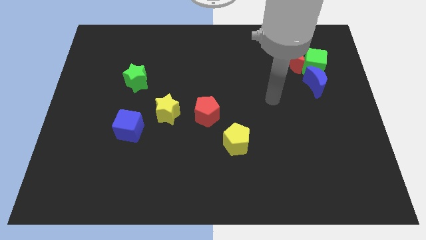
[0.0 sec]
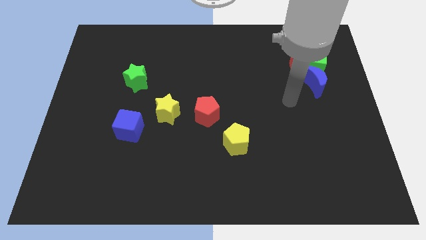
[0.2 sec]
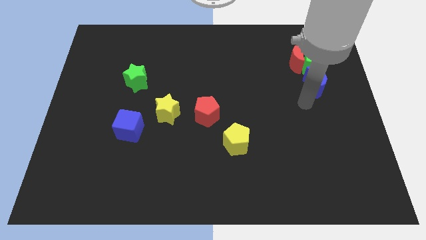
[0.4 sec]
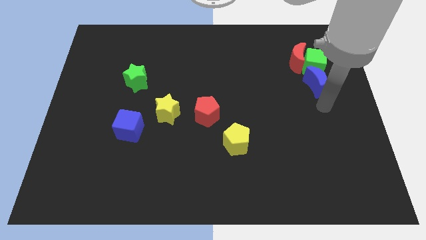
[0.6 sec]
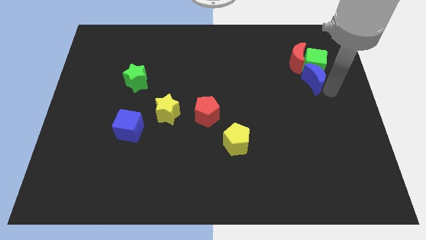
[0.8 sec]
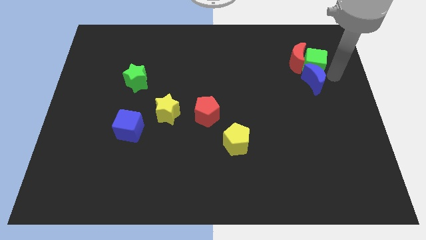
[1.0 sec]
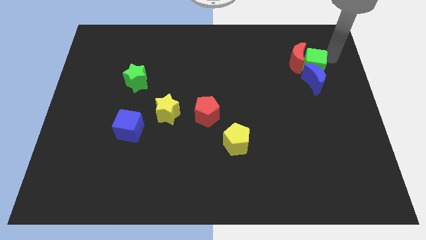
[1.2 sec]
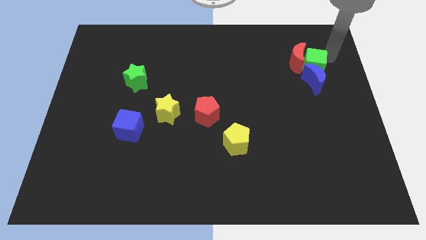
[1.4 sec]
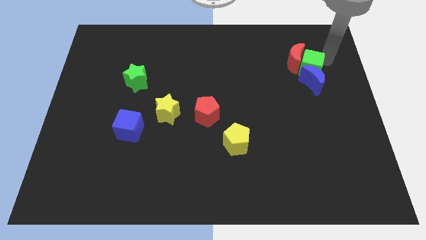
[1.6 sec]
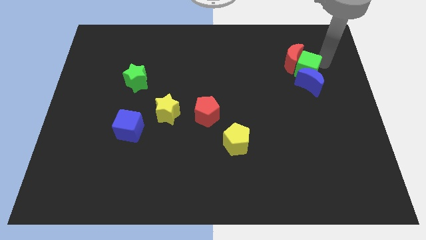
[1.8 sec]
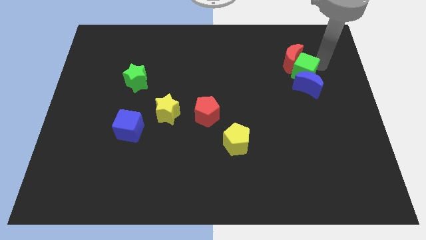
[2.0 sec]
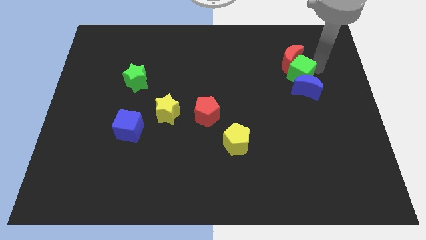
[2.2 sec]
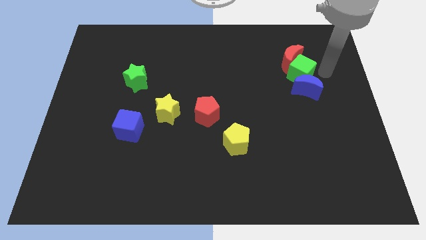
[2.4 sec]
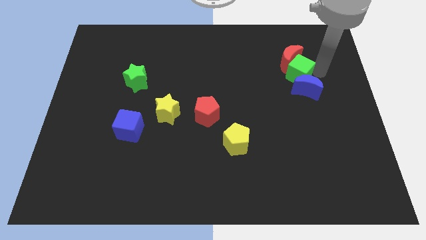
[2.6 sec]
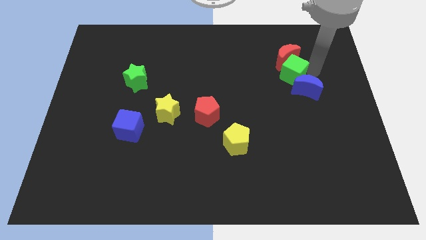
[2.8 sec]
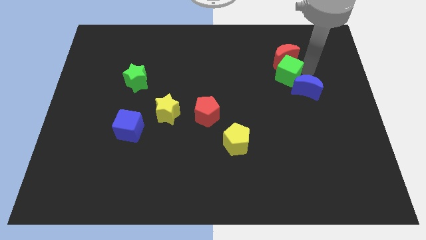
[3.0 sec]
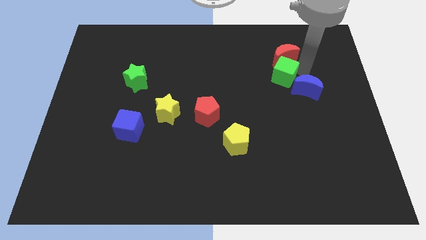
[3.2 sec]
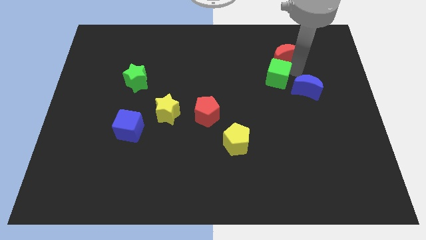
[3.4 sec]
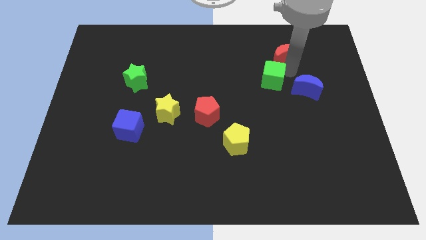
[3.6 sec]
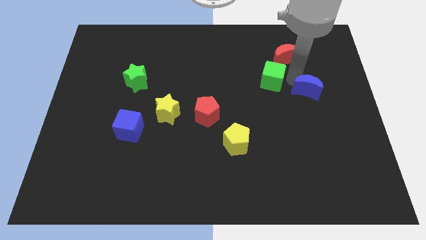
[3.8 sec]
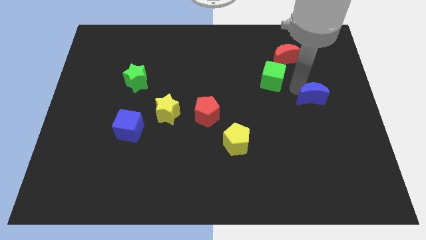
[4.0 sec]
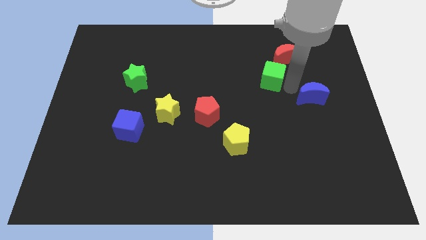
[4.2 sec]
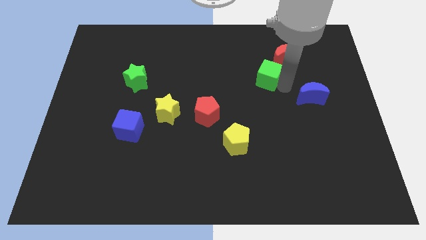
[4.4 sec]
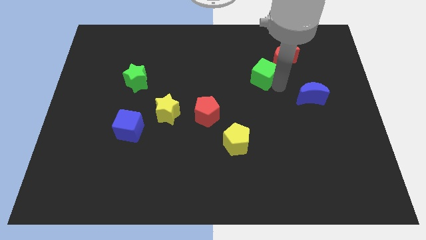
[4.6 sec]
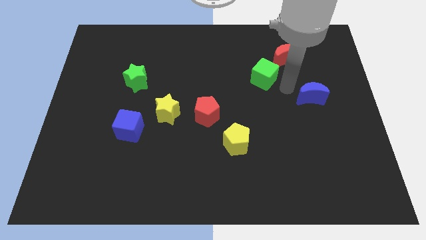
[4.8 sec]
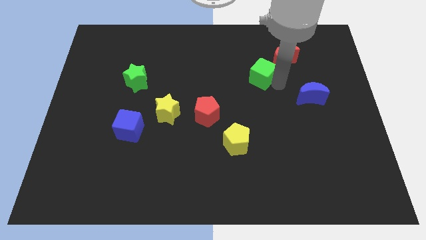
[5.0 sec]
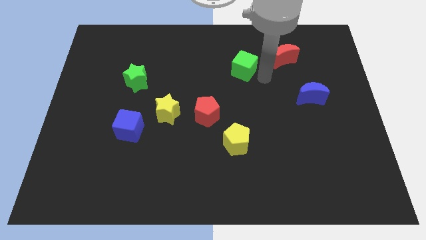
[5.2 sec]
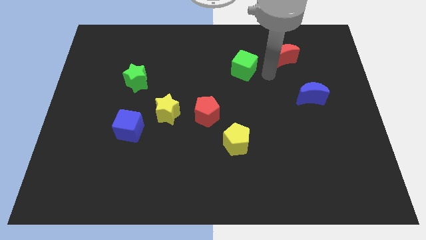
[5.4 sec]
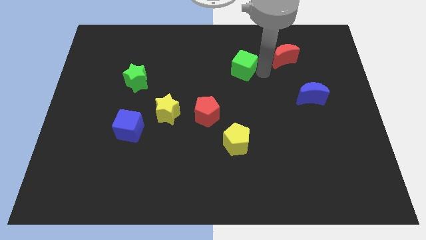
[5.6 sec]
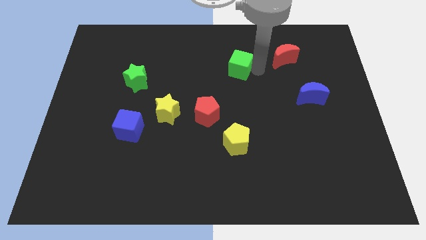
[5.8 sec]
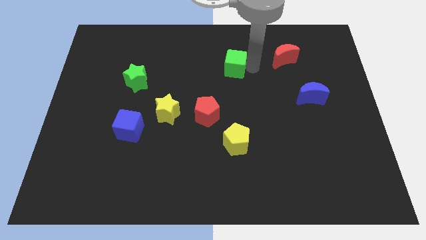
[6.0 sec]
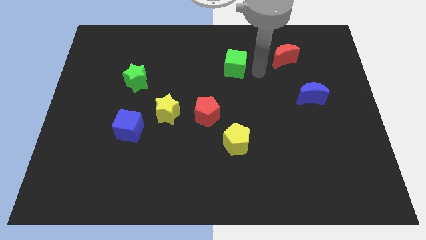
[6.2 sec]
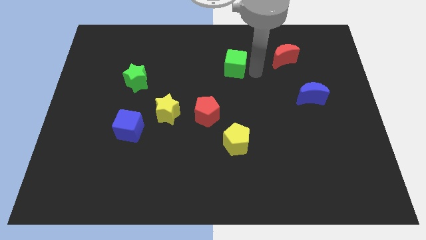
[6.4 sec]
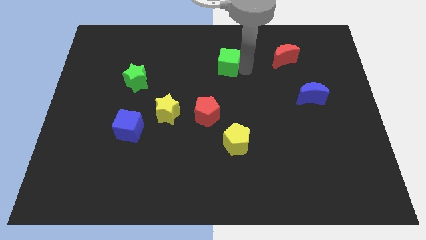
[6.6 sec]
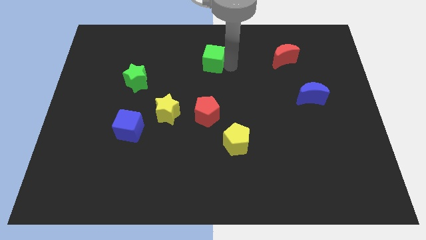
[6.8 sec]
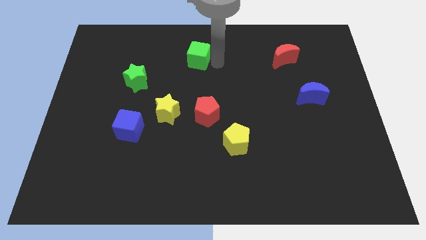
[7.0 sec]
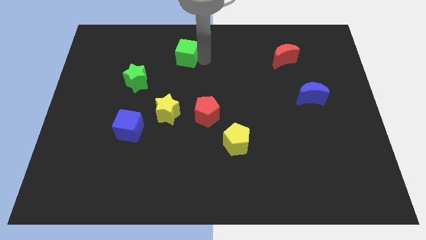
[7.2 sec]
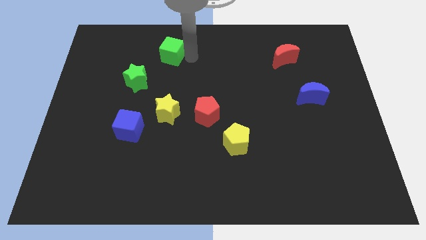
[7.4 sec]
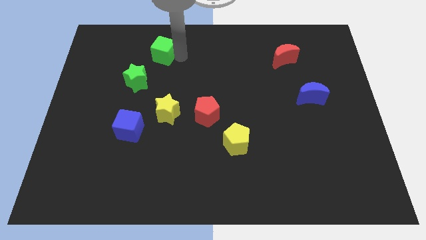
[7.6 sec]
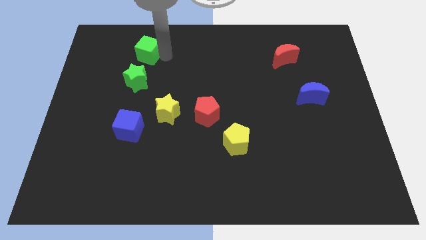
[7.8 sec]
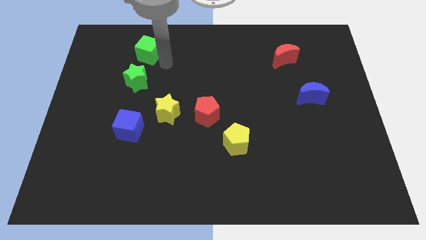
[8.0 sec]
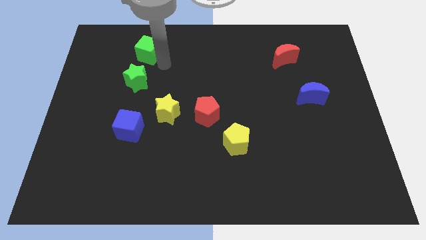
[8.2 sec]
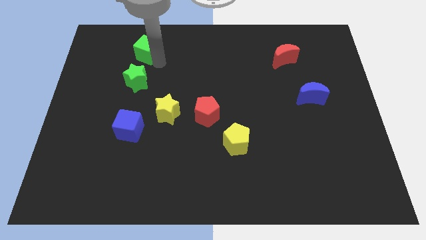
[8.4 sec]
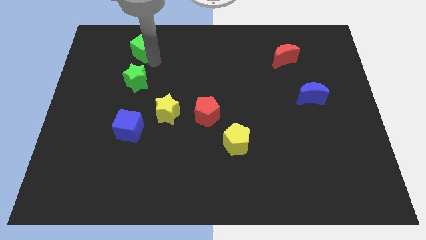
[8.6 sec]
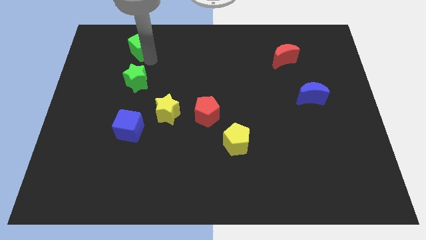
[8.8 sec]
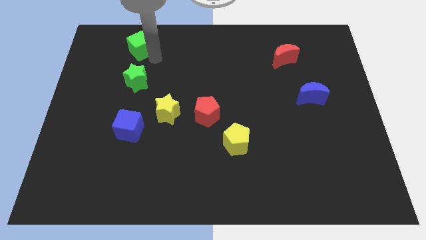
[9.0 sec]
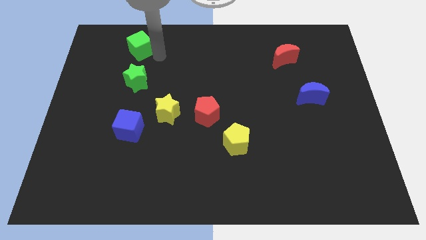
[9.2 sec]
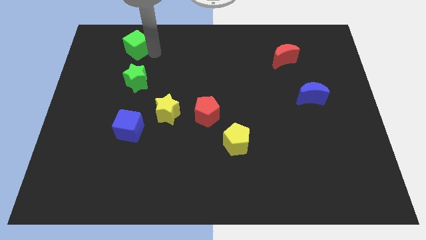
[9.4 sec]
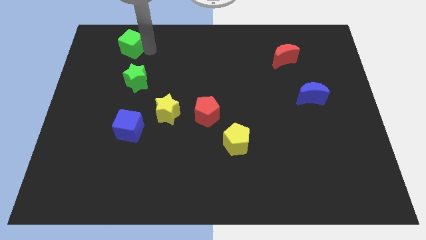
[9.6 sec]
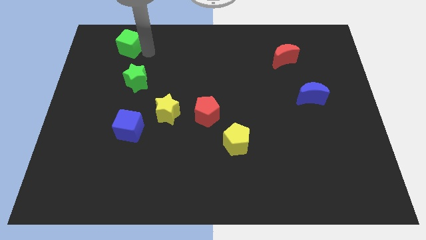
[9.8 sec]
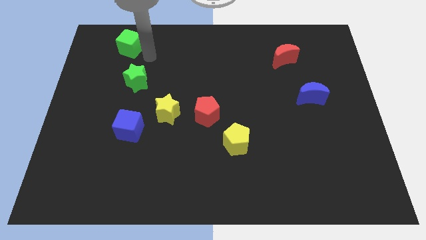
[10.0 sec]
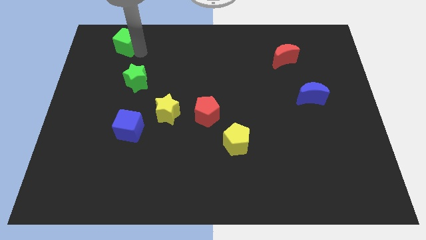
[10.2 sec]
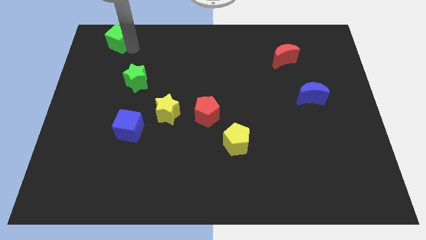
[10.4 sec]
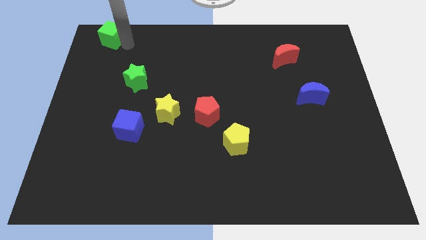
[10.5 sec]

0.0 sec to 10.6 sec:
move the green cube to the top left
